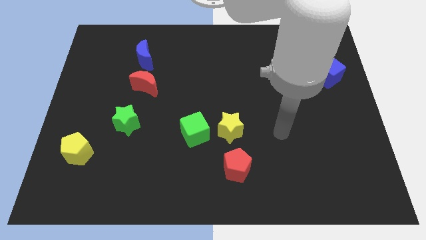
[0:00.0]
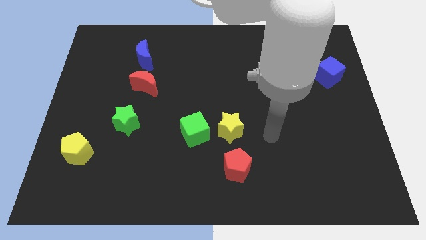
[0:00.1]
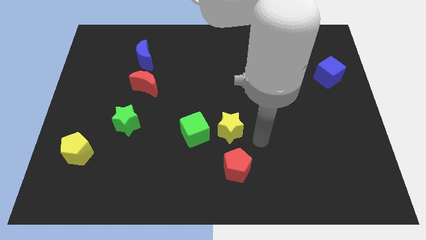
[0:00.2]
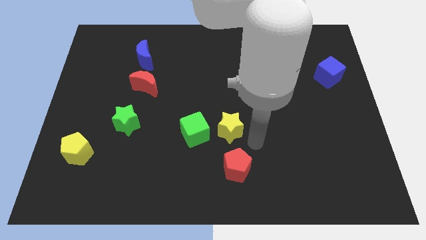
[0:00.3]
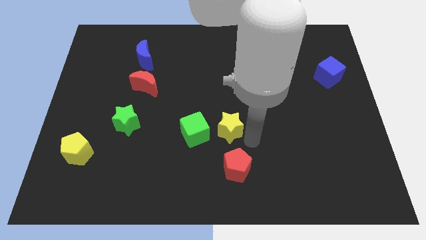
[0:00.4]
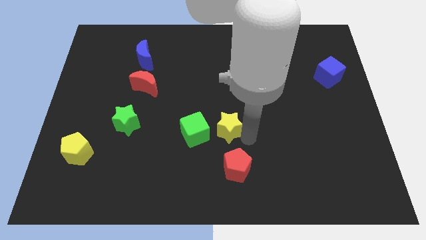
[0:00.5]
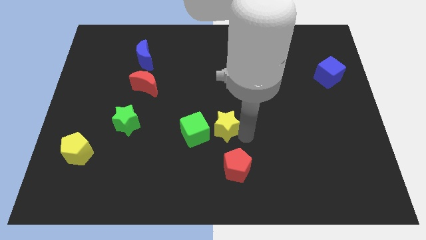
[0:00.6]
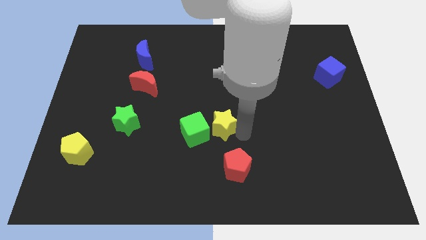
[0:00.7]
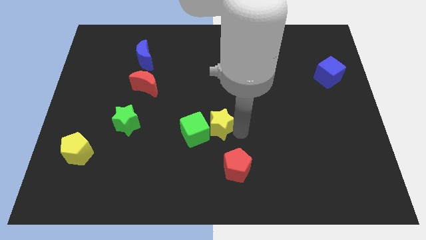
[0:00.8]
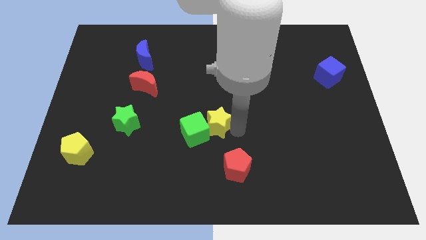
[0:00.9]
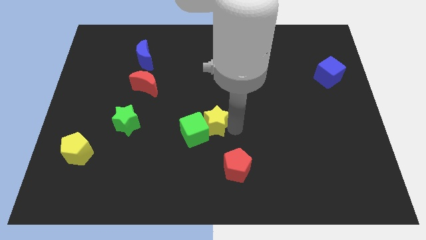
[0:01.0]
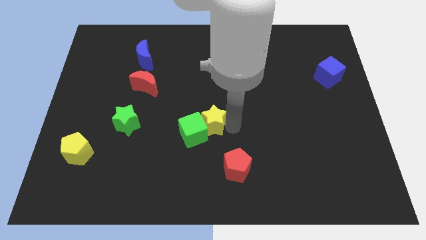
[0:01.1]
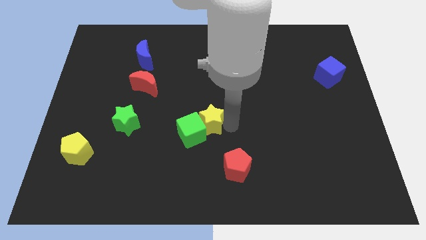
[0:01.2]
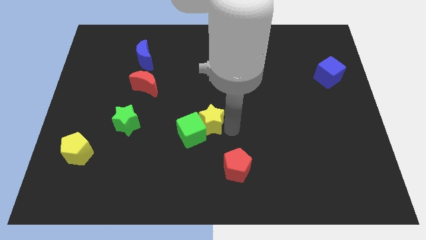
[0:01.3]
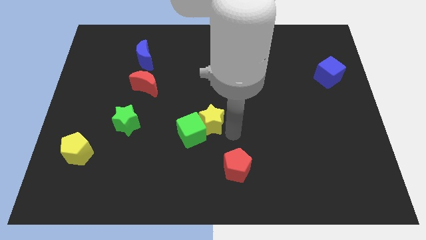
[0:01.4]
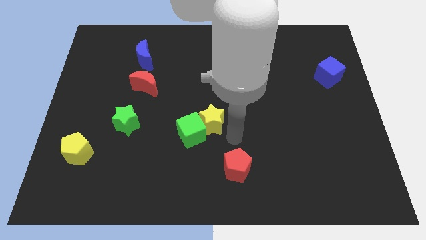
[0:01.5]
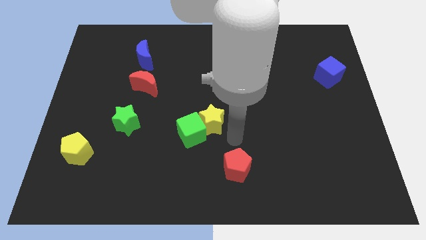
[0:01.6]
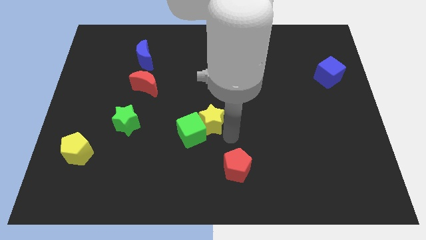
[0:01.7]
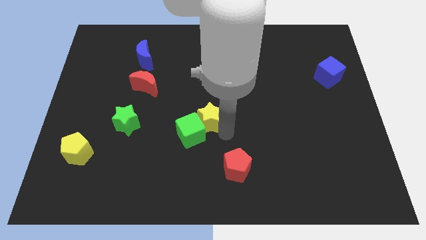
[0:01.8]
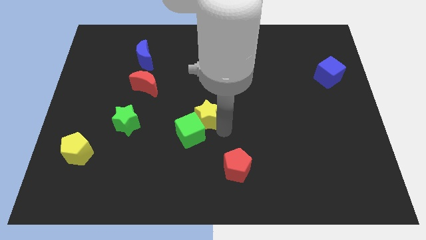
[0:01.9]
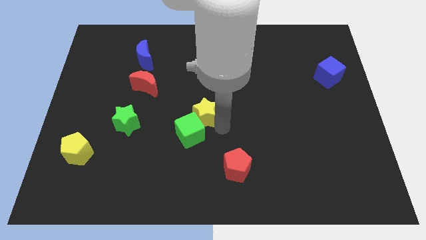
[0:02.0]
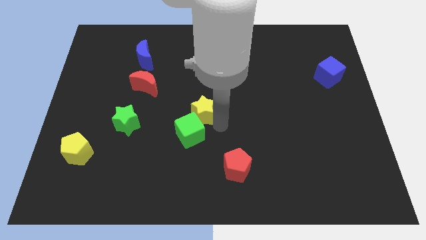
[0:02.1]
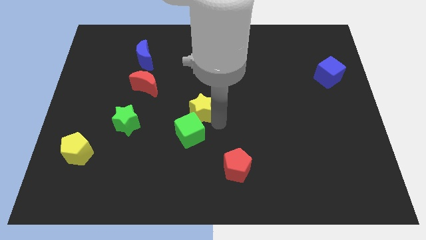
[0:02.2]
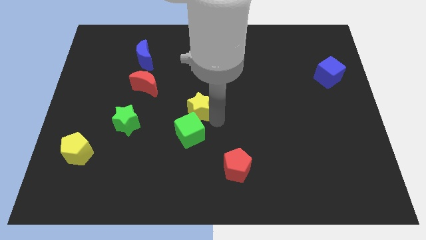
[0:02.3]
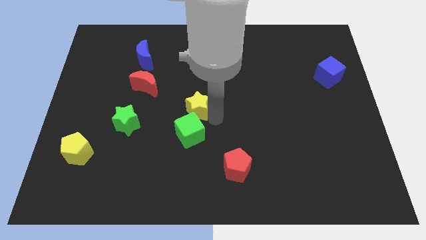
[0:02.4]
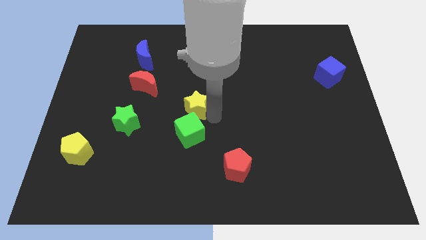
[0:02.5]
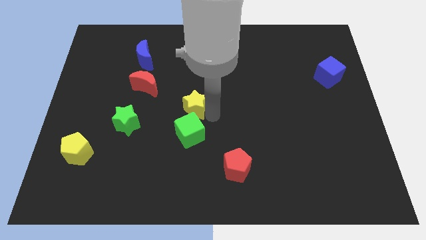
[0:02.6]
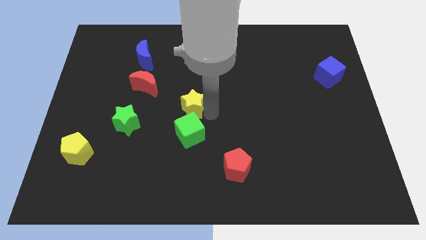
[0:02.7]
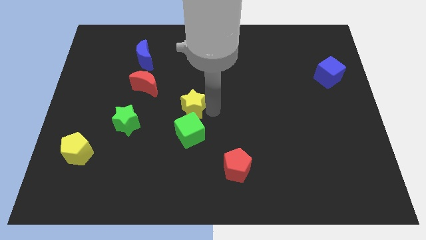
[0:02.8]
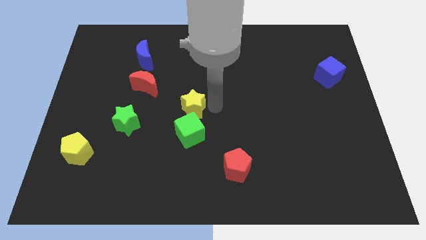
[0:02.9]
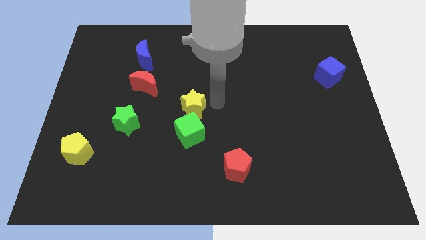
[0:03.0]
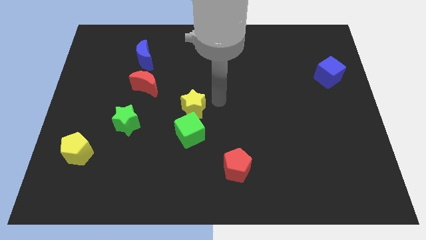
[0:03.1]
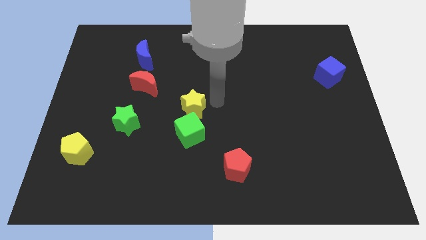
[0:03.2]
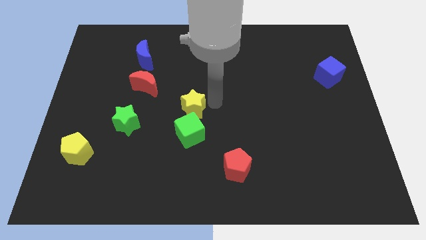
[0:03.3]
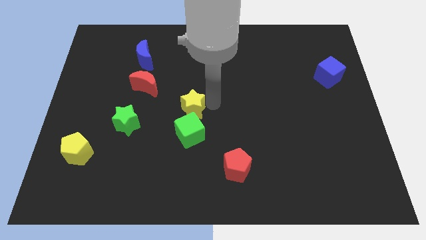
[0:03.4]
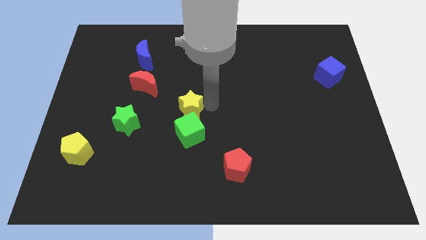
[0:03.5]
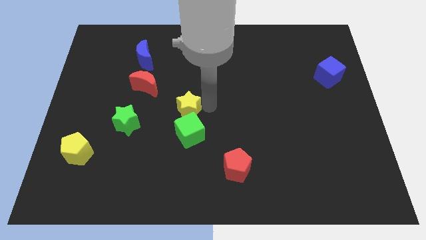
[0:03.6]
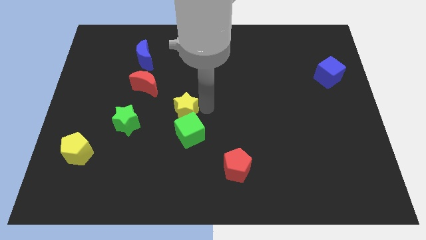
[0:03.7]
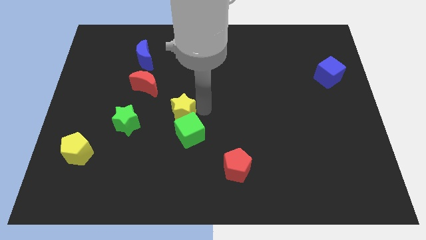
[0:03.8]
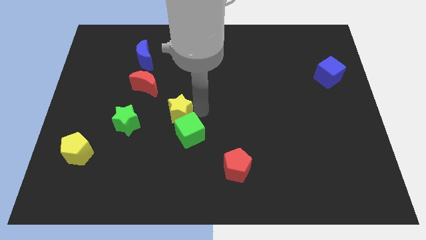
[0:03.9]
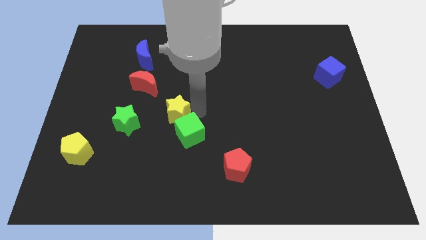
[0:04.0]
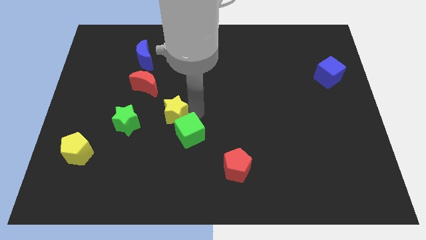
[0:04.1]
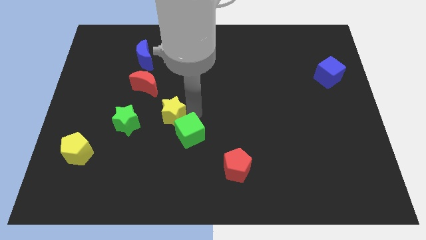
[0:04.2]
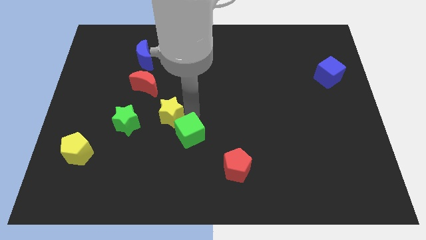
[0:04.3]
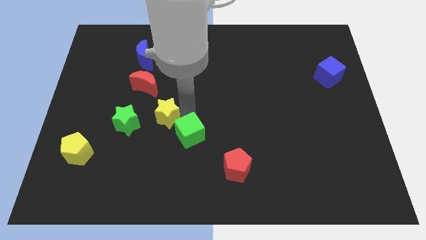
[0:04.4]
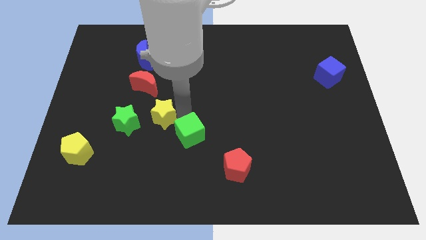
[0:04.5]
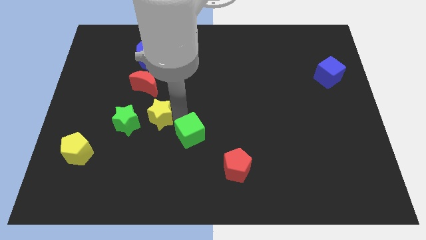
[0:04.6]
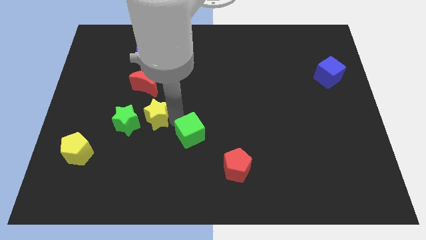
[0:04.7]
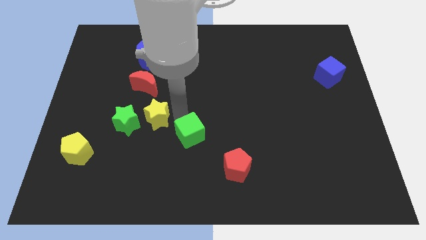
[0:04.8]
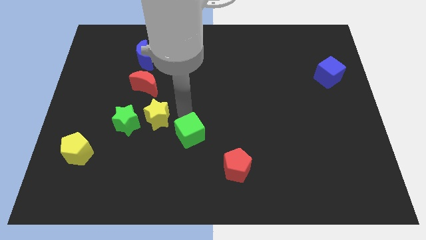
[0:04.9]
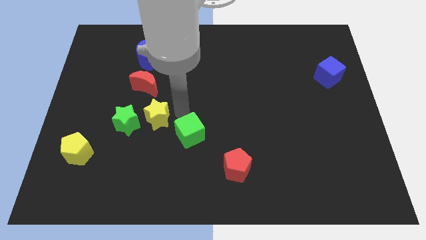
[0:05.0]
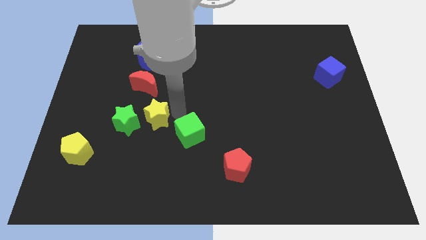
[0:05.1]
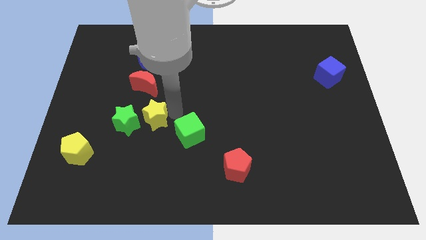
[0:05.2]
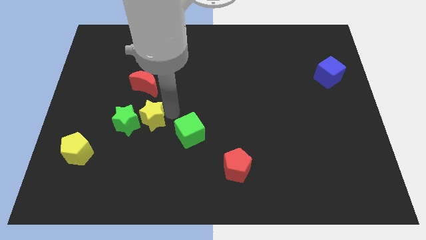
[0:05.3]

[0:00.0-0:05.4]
put the yellow star towards the green star

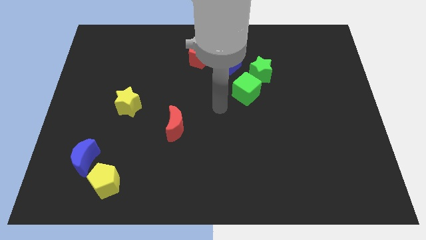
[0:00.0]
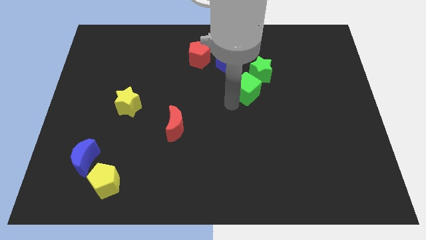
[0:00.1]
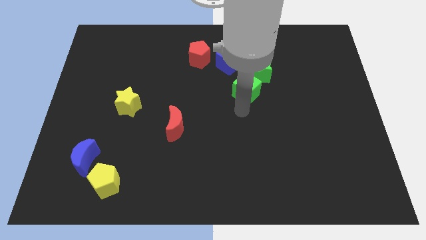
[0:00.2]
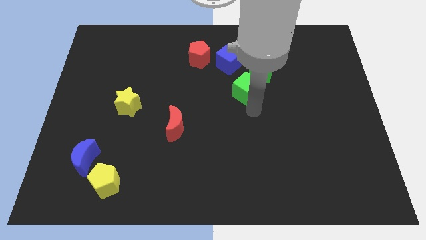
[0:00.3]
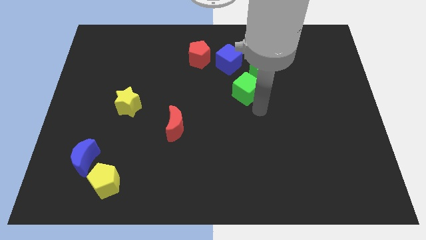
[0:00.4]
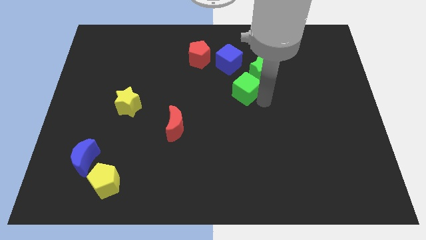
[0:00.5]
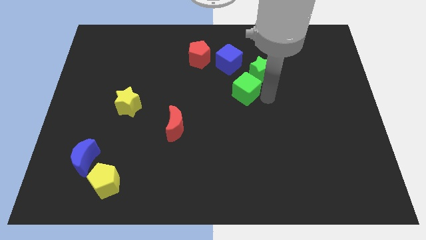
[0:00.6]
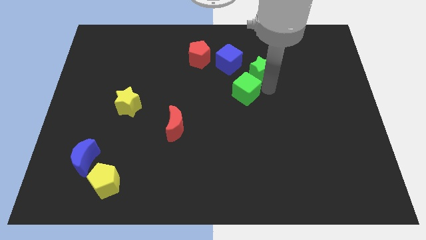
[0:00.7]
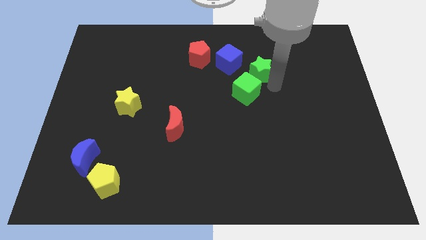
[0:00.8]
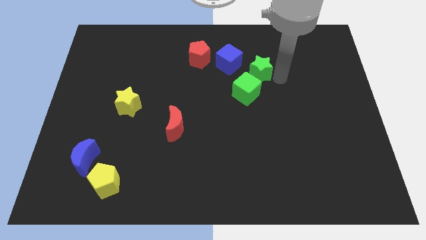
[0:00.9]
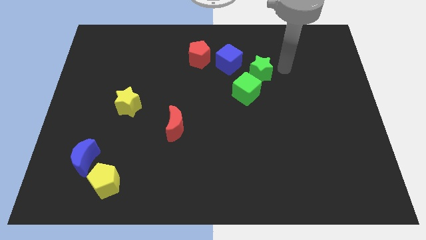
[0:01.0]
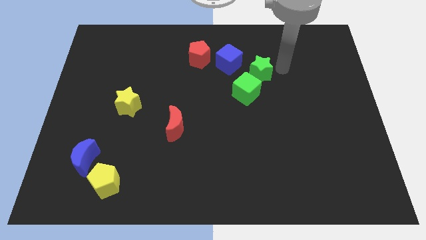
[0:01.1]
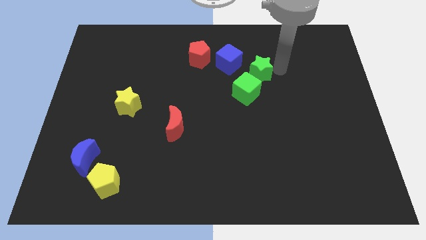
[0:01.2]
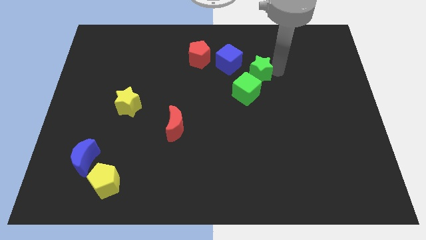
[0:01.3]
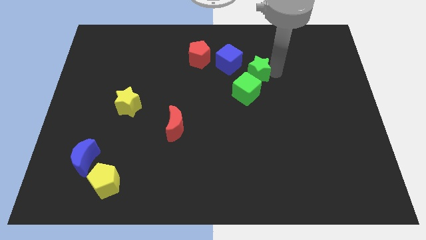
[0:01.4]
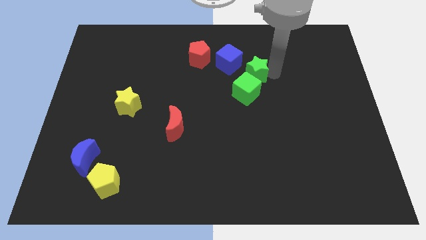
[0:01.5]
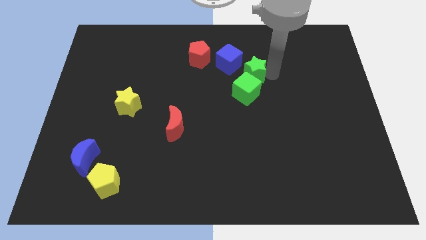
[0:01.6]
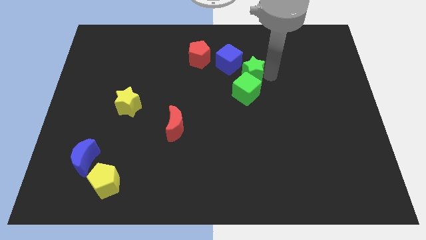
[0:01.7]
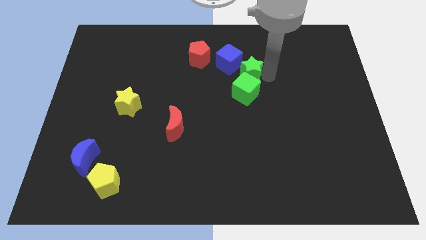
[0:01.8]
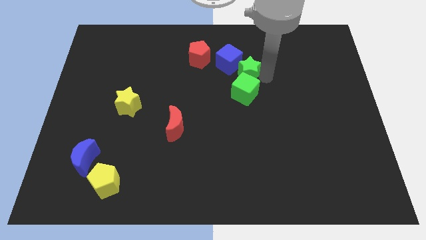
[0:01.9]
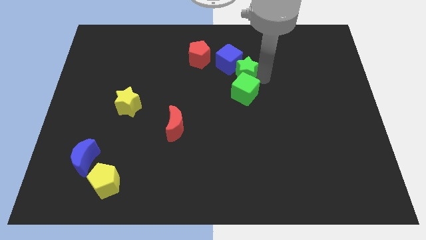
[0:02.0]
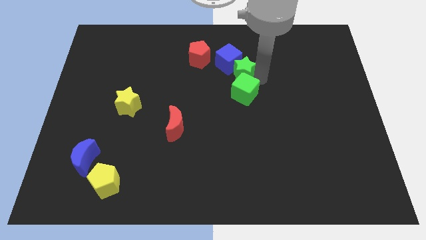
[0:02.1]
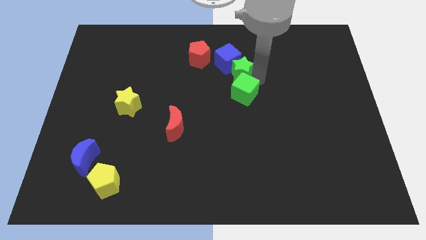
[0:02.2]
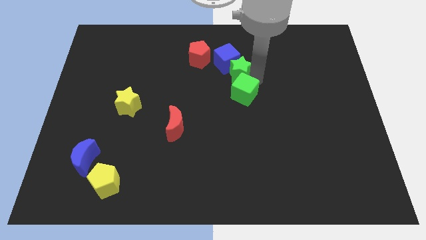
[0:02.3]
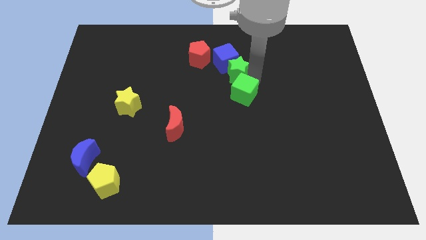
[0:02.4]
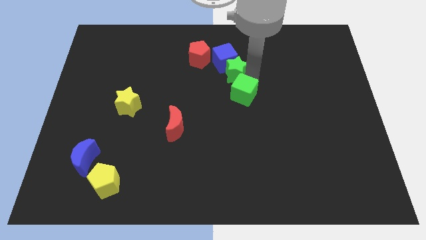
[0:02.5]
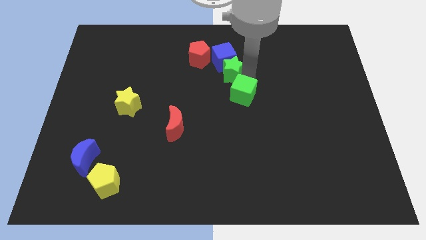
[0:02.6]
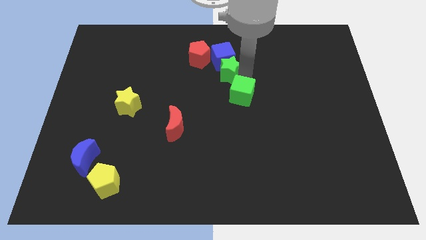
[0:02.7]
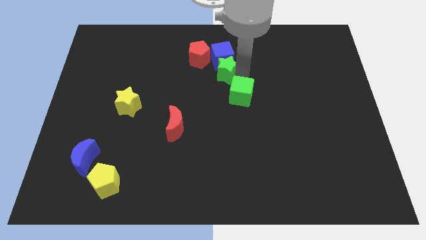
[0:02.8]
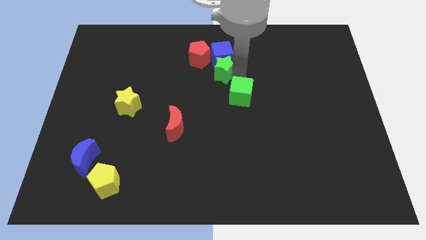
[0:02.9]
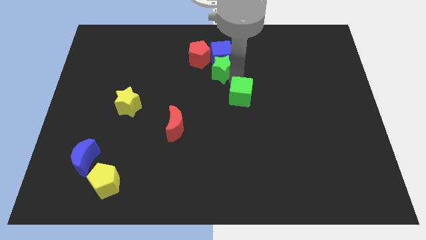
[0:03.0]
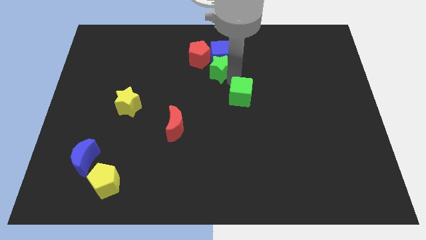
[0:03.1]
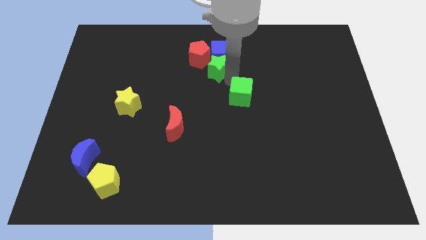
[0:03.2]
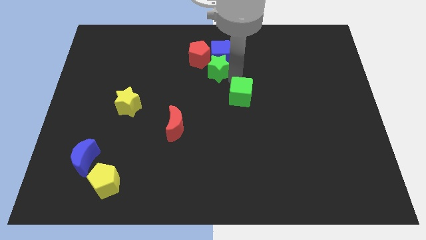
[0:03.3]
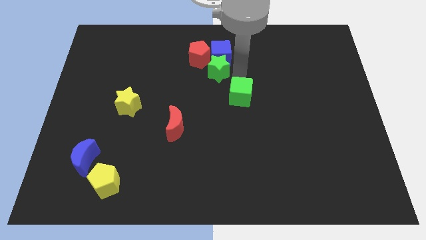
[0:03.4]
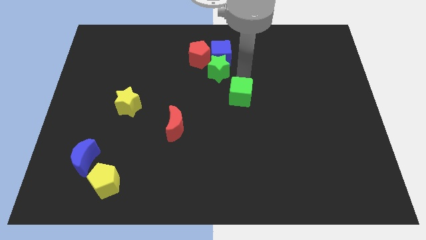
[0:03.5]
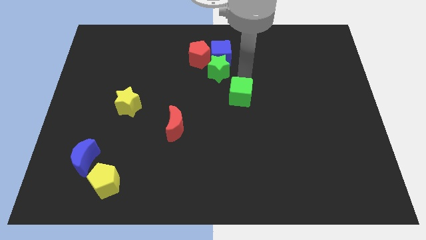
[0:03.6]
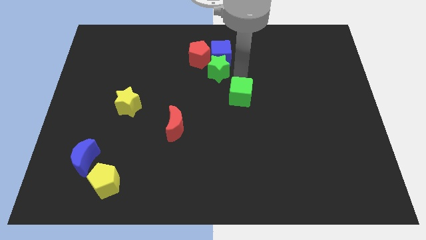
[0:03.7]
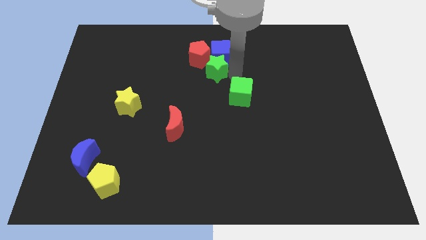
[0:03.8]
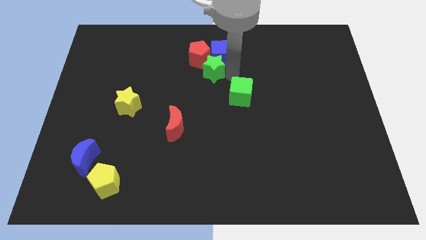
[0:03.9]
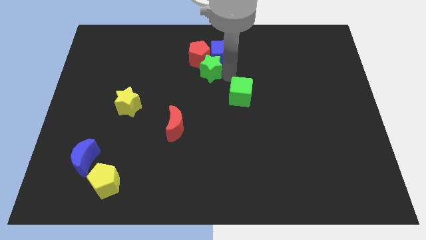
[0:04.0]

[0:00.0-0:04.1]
put the green star to the red pentagon
